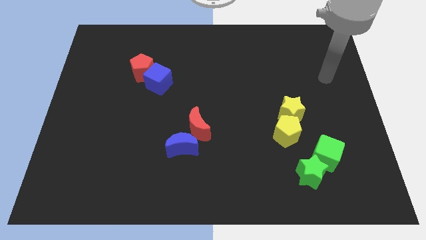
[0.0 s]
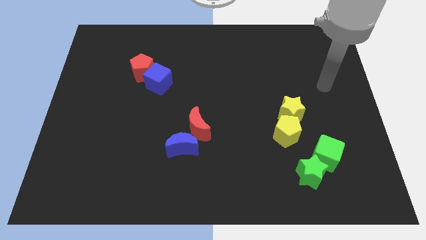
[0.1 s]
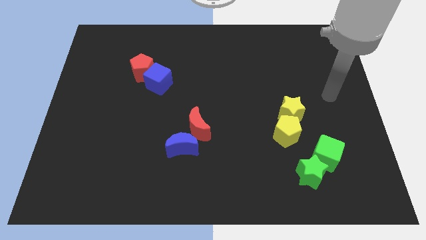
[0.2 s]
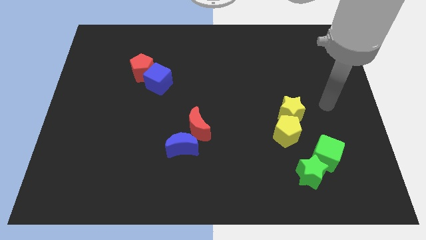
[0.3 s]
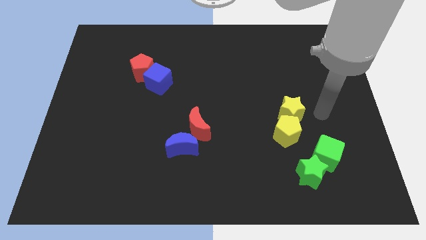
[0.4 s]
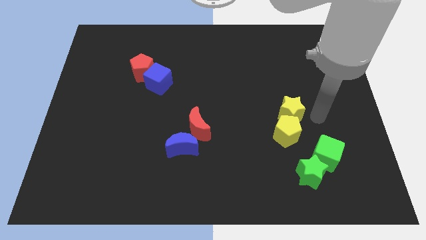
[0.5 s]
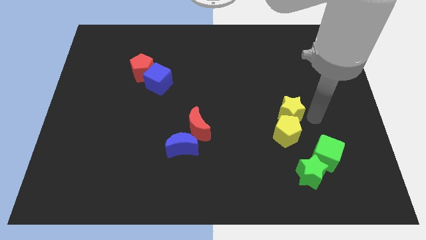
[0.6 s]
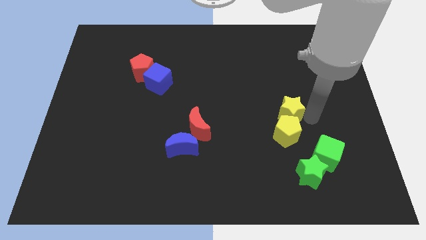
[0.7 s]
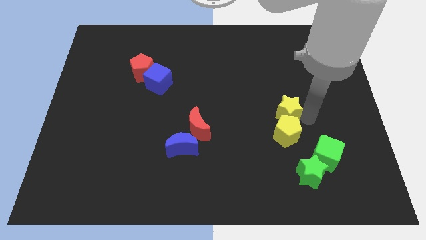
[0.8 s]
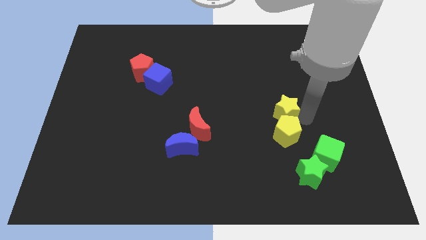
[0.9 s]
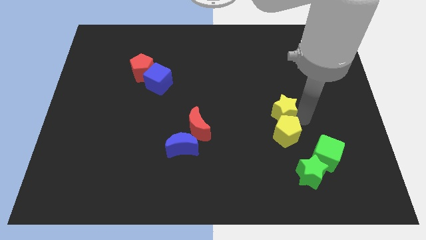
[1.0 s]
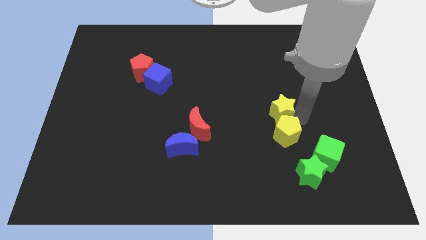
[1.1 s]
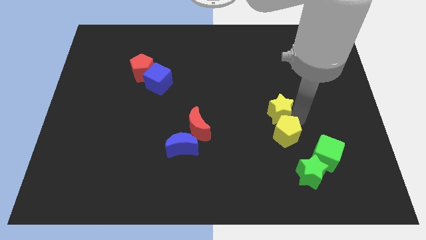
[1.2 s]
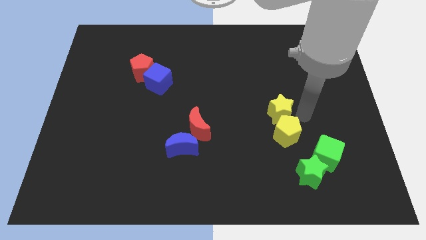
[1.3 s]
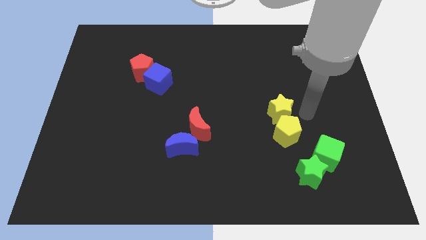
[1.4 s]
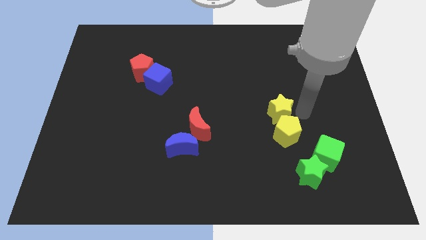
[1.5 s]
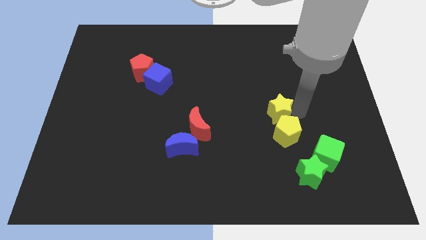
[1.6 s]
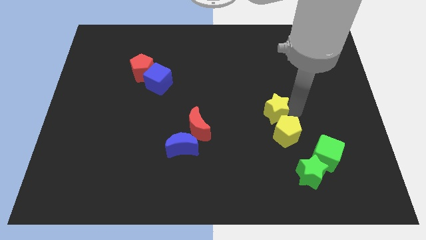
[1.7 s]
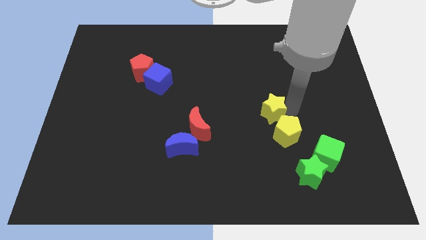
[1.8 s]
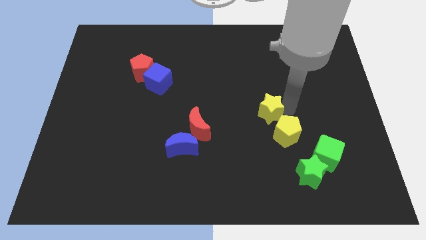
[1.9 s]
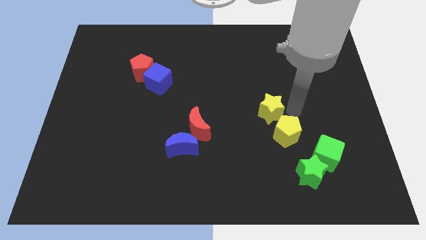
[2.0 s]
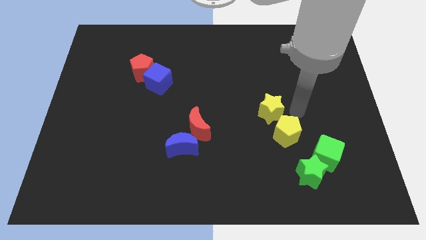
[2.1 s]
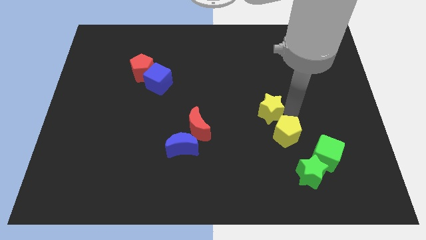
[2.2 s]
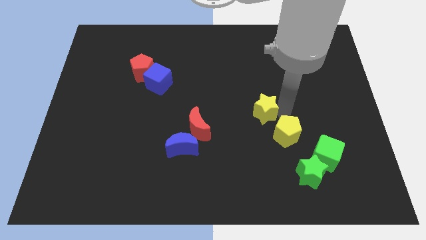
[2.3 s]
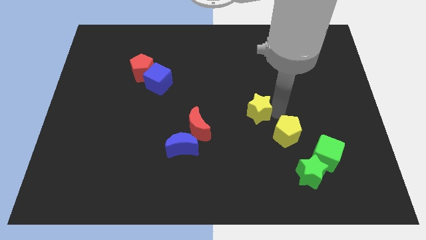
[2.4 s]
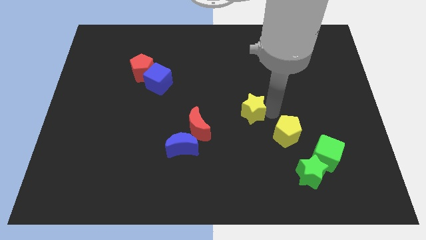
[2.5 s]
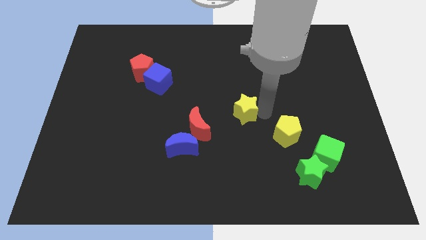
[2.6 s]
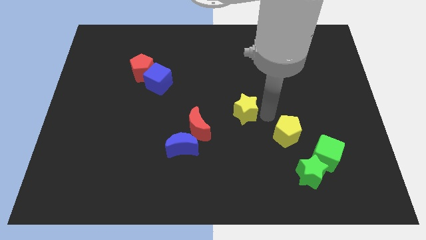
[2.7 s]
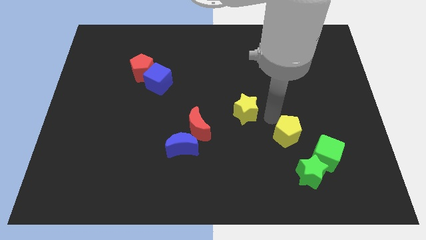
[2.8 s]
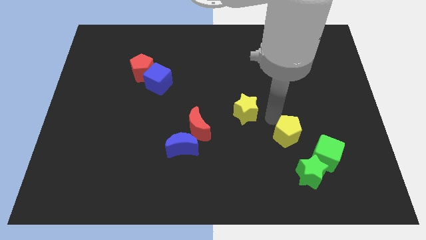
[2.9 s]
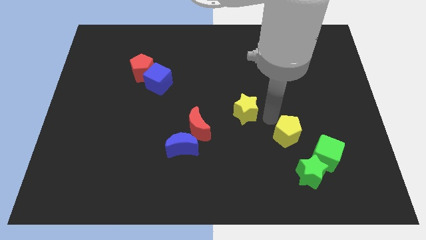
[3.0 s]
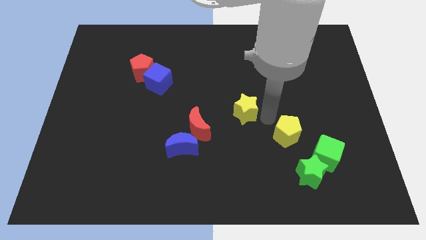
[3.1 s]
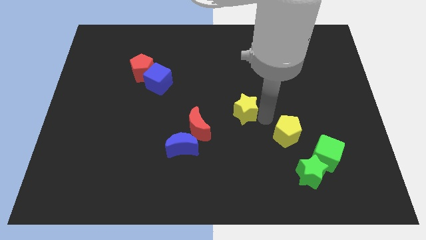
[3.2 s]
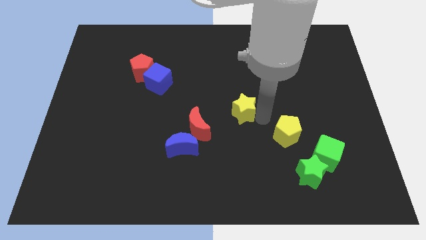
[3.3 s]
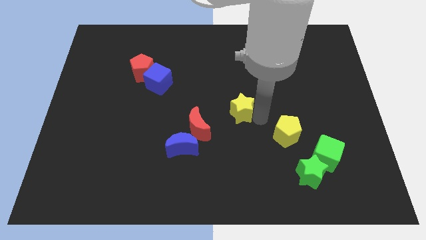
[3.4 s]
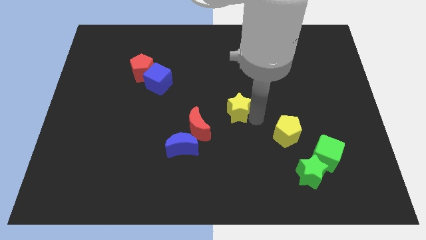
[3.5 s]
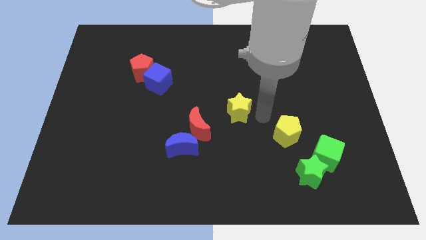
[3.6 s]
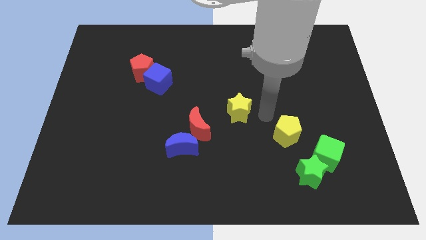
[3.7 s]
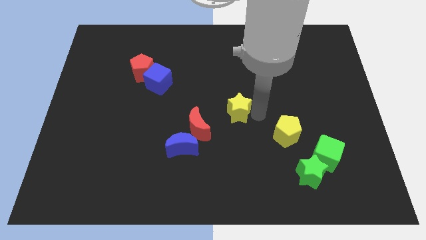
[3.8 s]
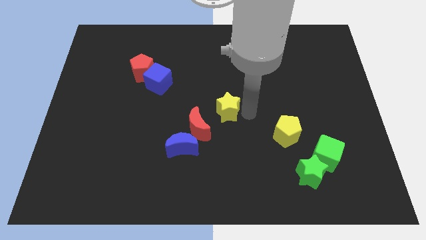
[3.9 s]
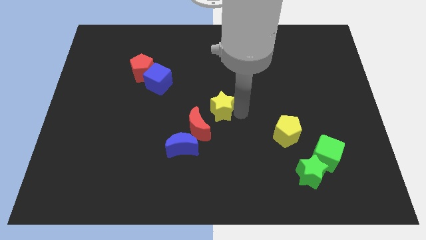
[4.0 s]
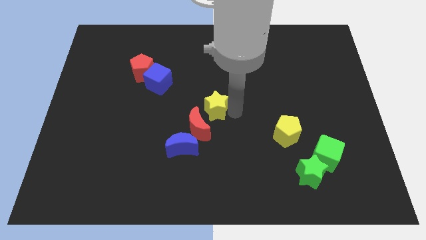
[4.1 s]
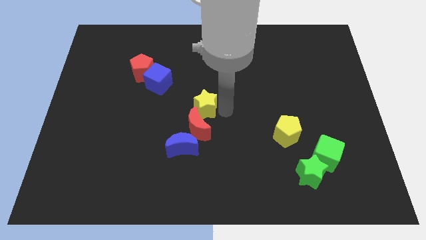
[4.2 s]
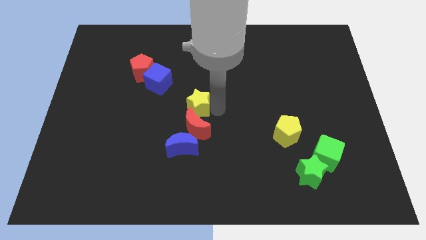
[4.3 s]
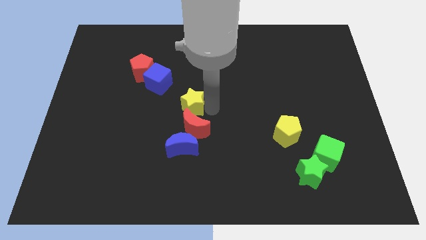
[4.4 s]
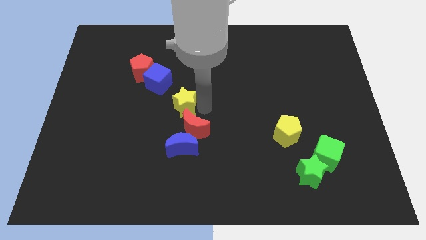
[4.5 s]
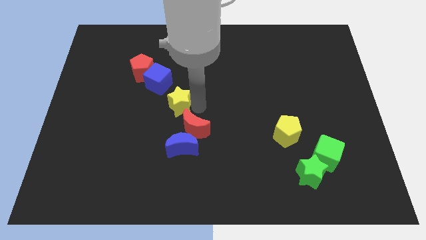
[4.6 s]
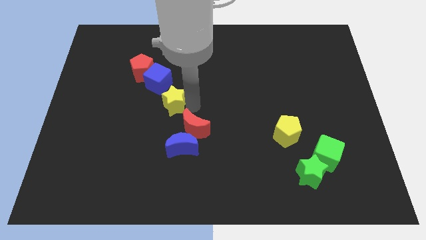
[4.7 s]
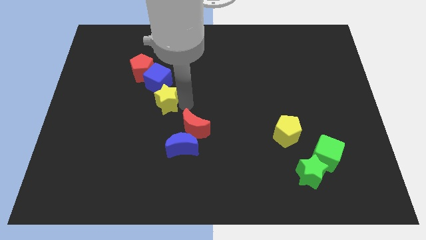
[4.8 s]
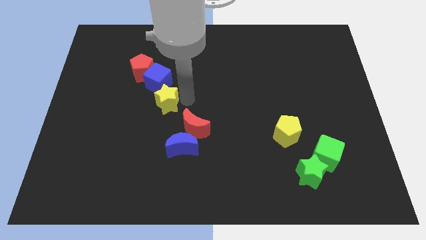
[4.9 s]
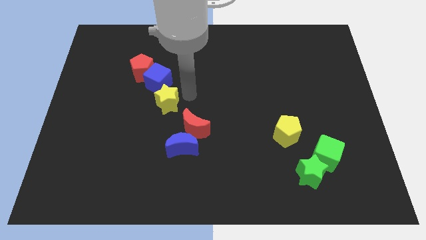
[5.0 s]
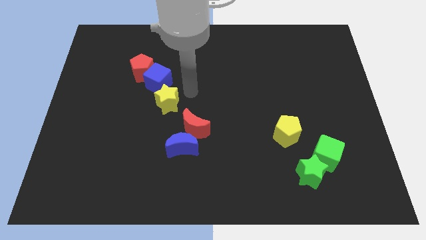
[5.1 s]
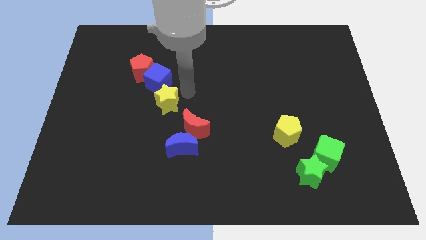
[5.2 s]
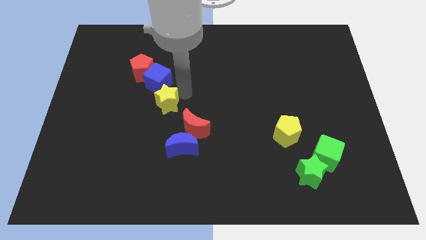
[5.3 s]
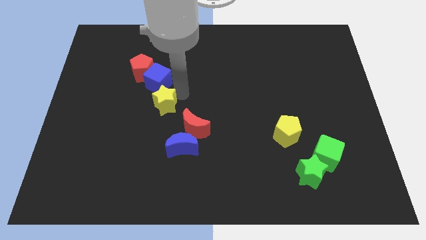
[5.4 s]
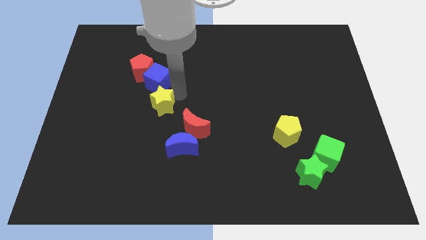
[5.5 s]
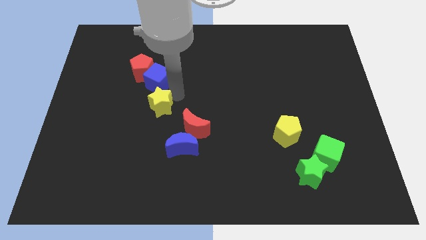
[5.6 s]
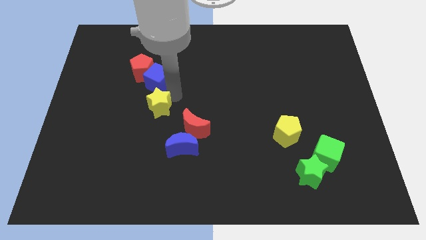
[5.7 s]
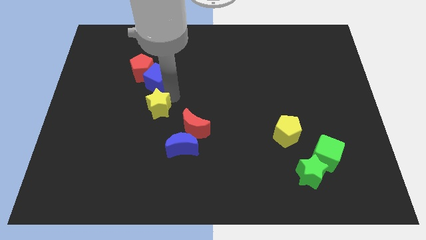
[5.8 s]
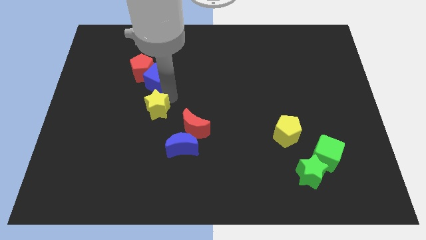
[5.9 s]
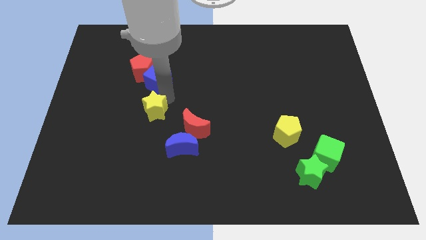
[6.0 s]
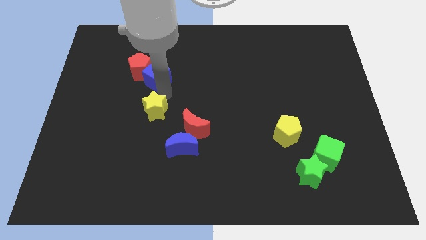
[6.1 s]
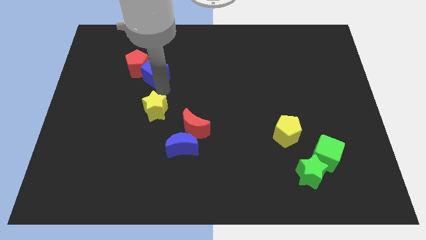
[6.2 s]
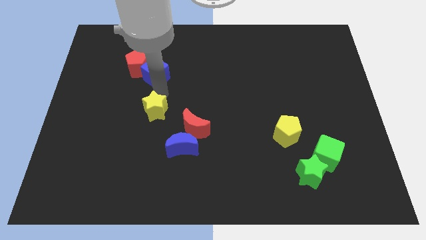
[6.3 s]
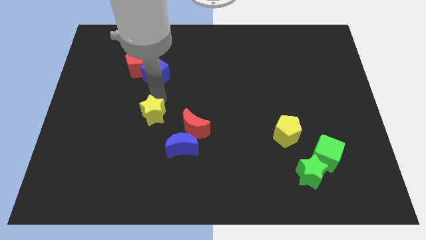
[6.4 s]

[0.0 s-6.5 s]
put the yellow star to the left side of the red moon

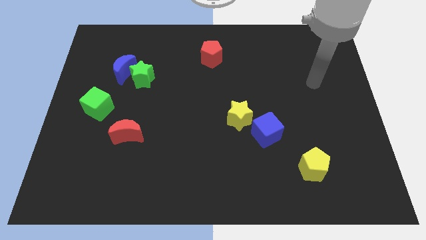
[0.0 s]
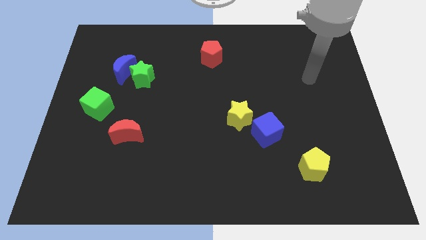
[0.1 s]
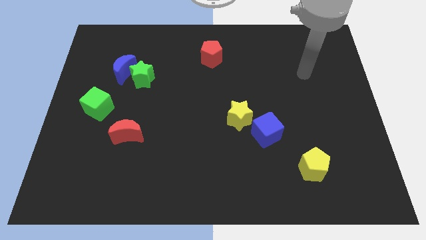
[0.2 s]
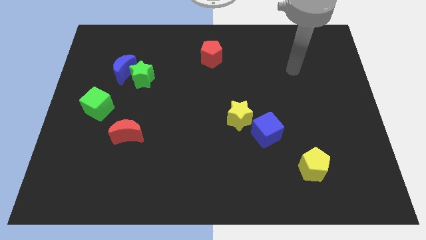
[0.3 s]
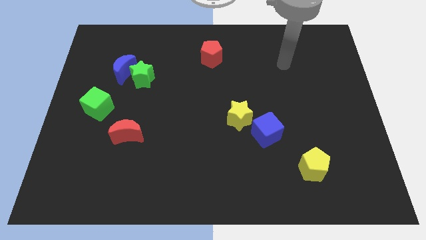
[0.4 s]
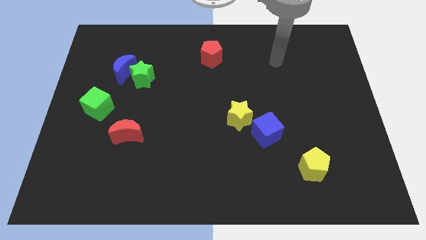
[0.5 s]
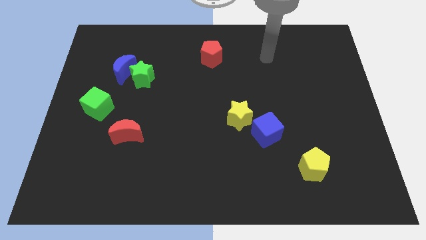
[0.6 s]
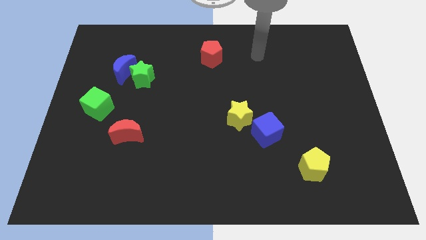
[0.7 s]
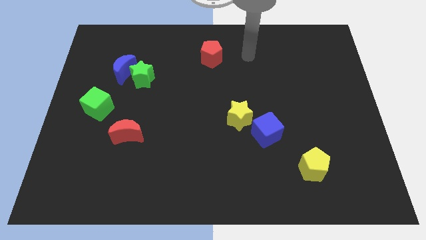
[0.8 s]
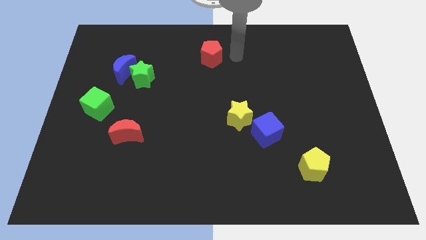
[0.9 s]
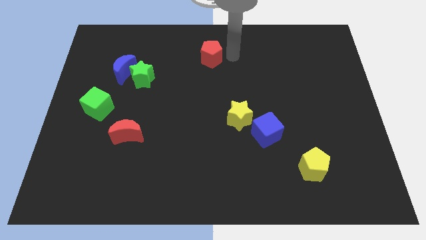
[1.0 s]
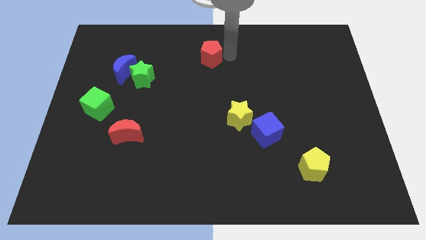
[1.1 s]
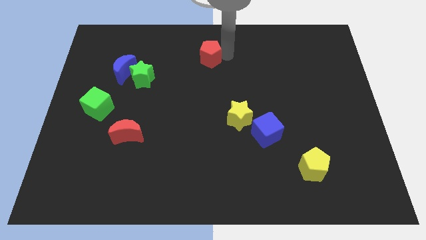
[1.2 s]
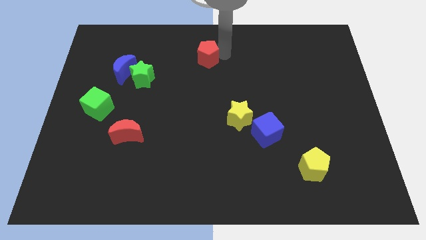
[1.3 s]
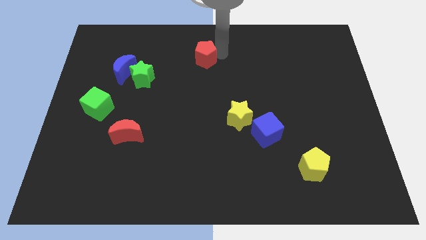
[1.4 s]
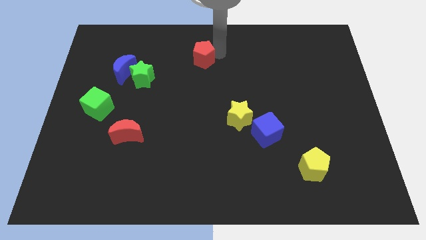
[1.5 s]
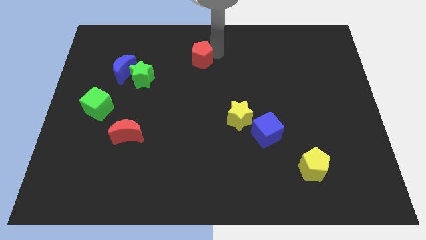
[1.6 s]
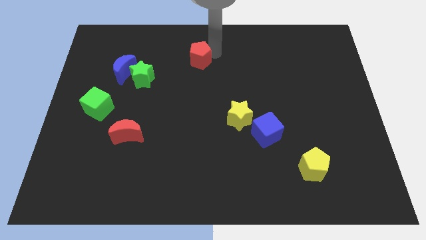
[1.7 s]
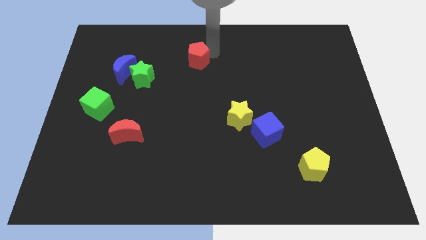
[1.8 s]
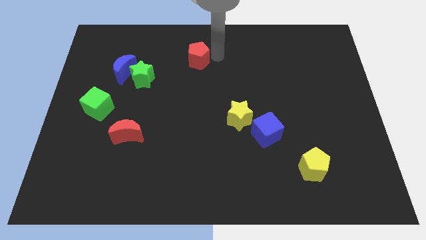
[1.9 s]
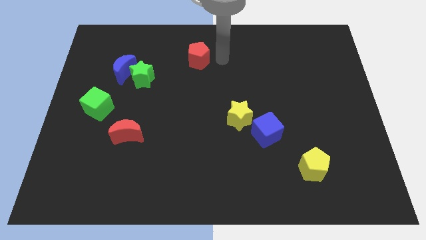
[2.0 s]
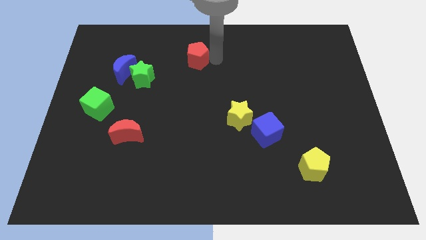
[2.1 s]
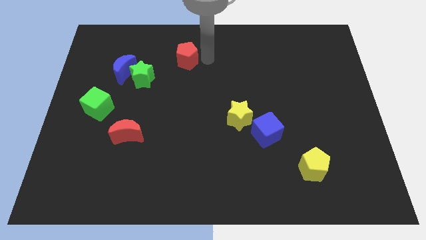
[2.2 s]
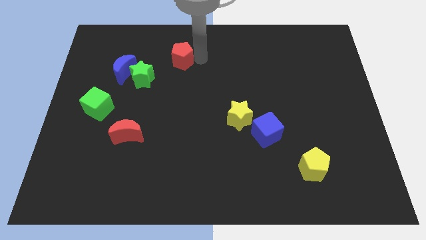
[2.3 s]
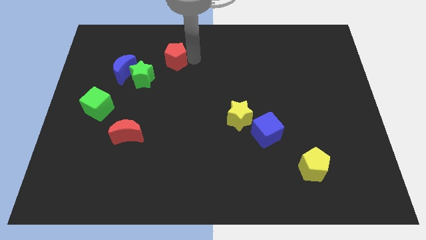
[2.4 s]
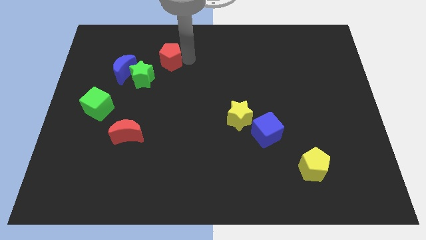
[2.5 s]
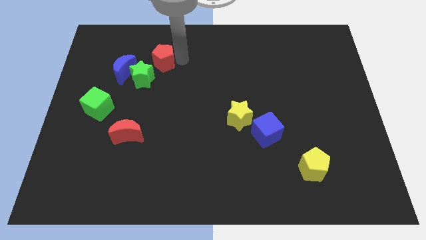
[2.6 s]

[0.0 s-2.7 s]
move the red pentagon to the top right of the blue moon
